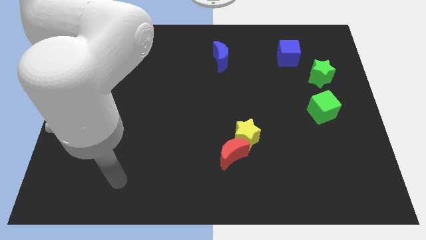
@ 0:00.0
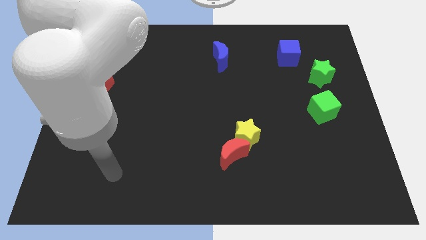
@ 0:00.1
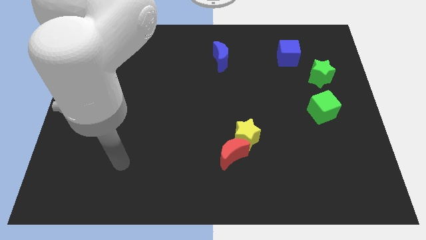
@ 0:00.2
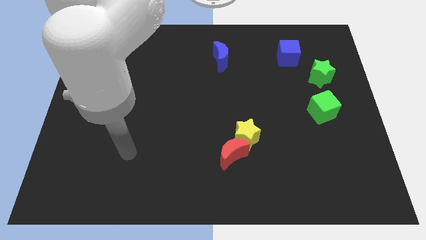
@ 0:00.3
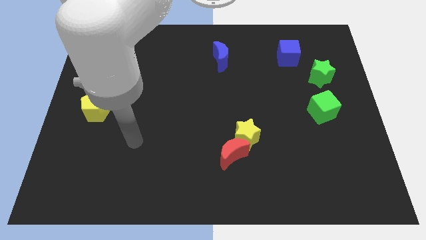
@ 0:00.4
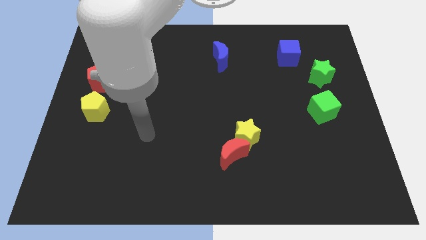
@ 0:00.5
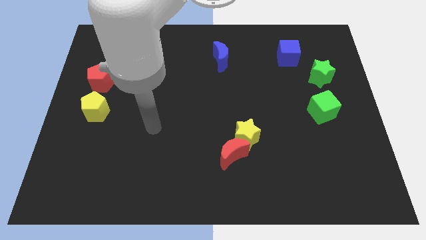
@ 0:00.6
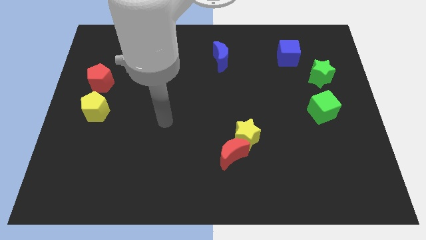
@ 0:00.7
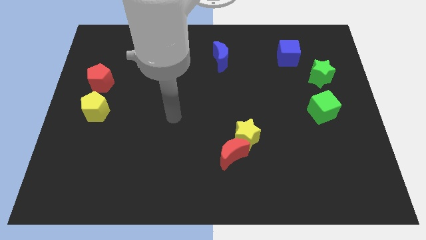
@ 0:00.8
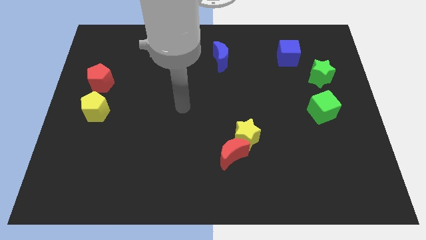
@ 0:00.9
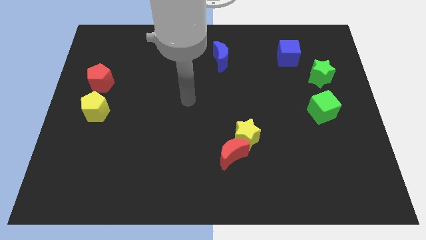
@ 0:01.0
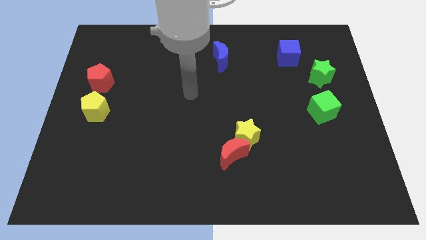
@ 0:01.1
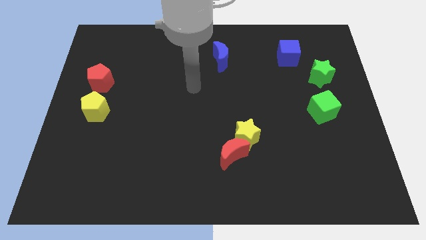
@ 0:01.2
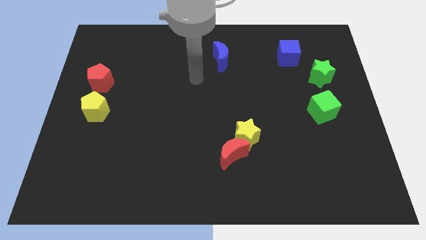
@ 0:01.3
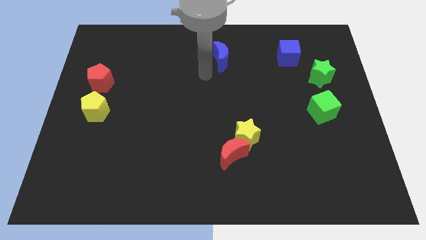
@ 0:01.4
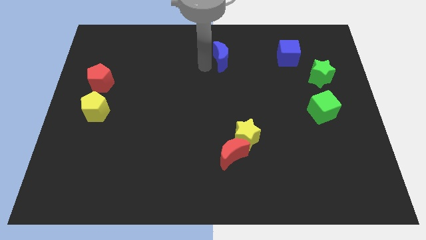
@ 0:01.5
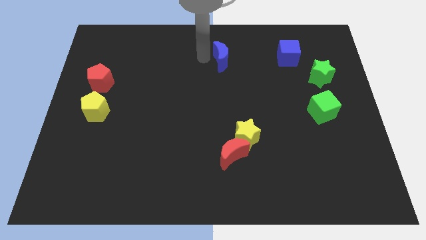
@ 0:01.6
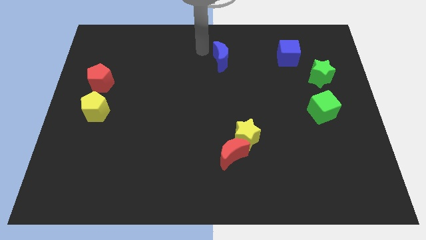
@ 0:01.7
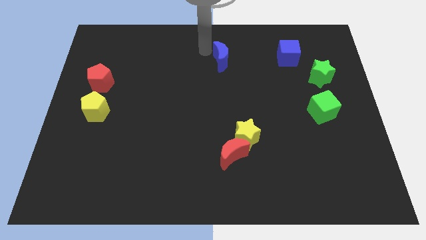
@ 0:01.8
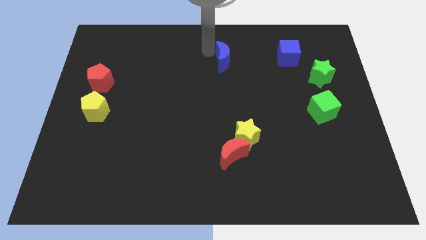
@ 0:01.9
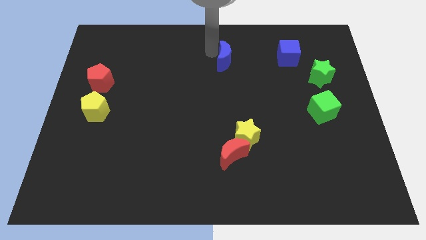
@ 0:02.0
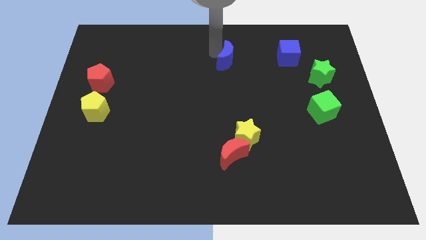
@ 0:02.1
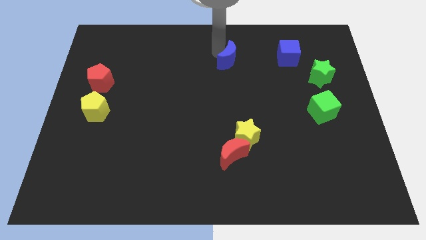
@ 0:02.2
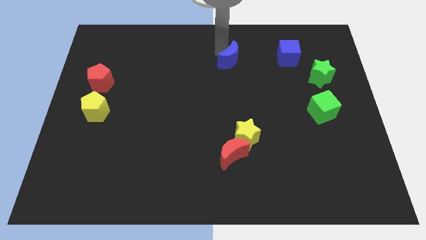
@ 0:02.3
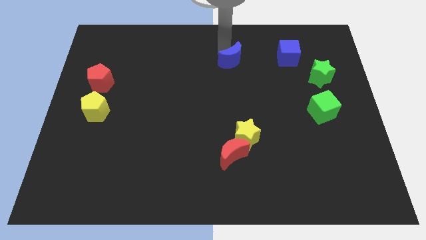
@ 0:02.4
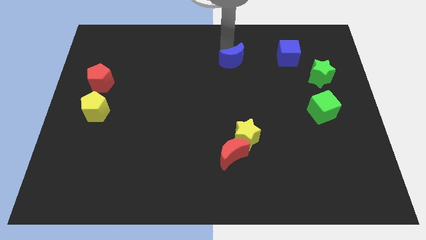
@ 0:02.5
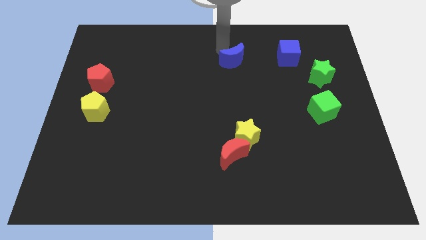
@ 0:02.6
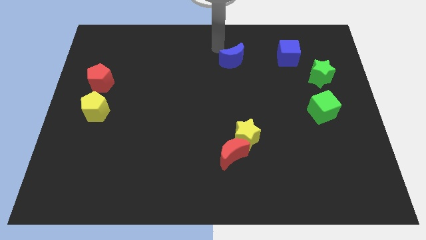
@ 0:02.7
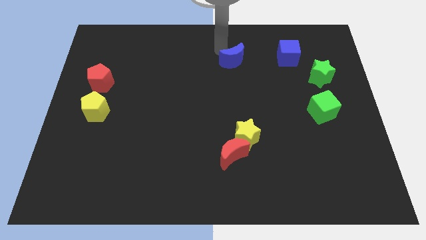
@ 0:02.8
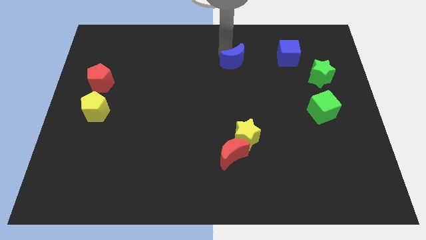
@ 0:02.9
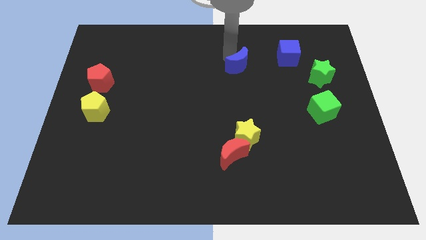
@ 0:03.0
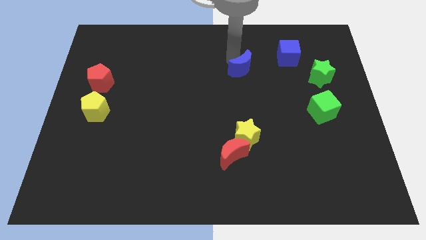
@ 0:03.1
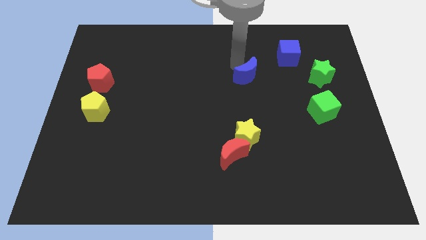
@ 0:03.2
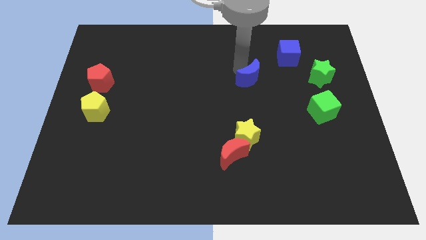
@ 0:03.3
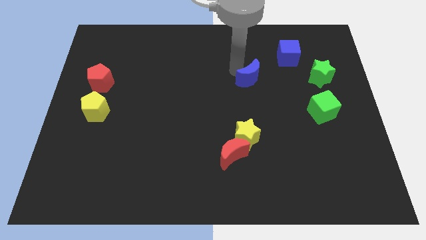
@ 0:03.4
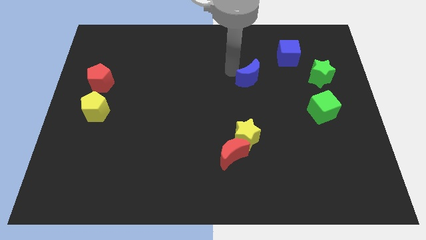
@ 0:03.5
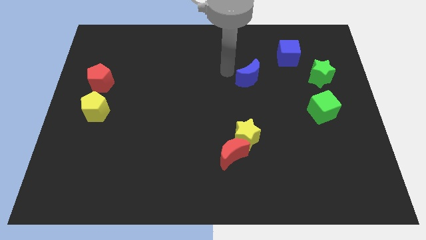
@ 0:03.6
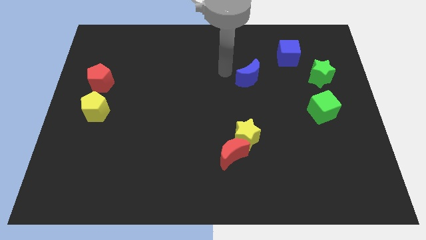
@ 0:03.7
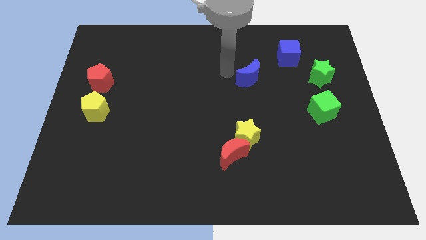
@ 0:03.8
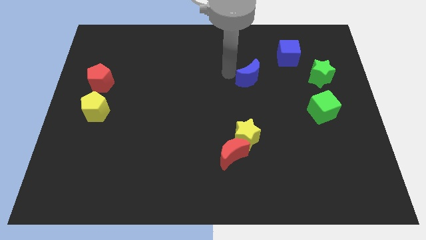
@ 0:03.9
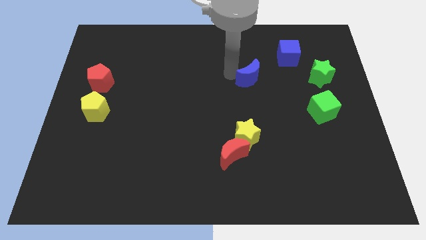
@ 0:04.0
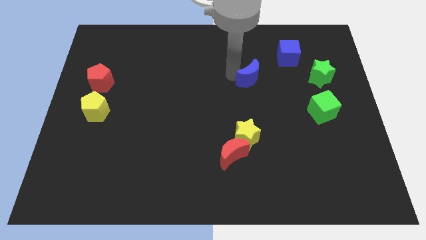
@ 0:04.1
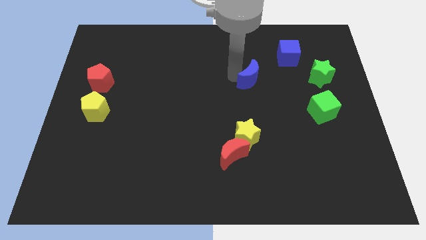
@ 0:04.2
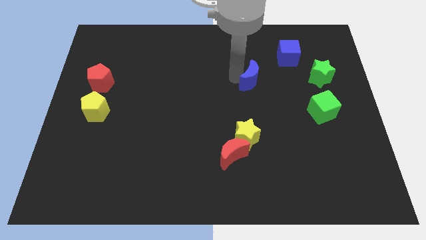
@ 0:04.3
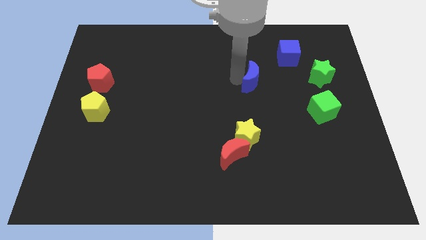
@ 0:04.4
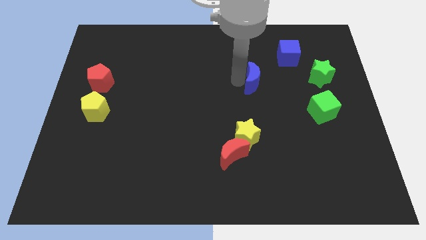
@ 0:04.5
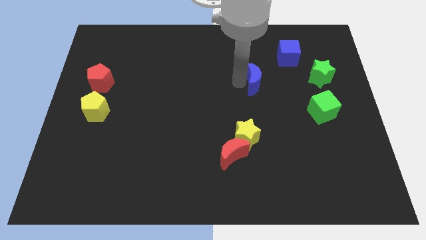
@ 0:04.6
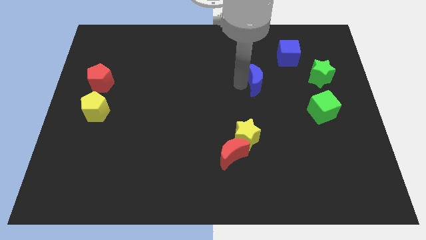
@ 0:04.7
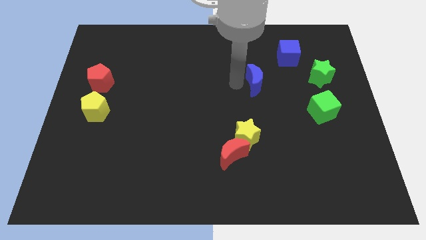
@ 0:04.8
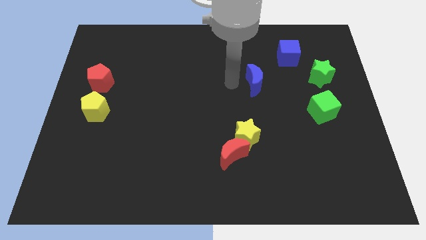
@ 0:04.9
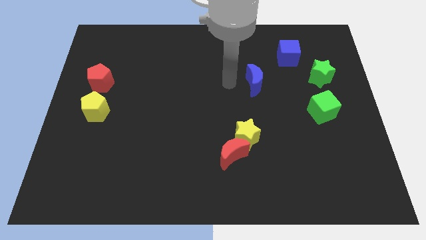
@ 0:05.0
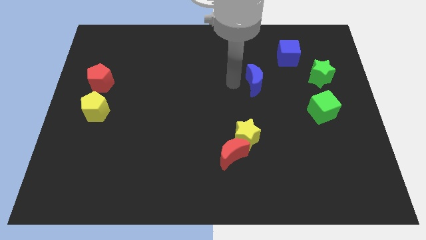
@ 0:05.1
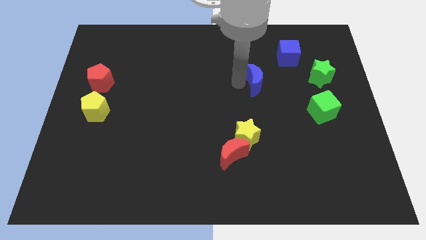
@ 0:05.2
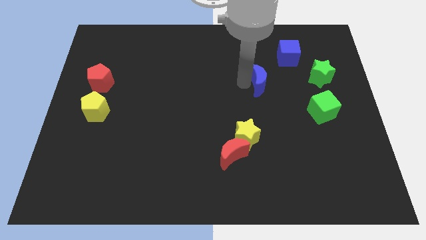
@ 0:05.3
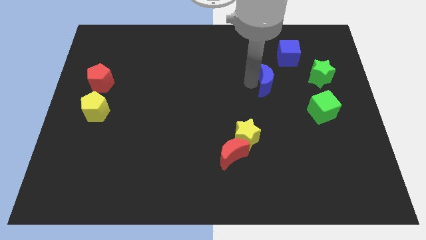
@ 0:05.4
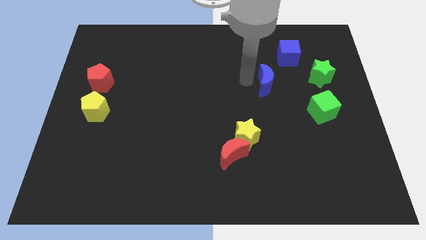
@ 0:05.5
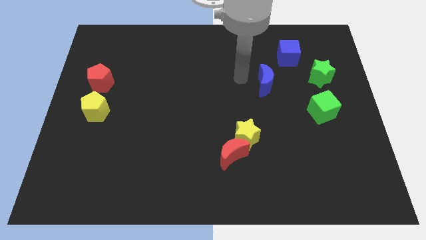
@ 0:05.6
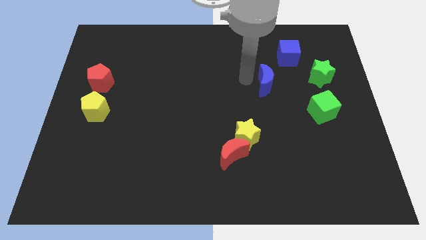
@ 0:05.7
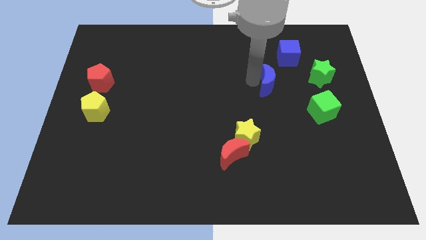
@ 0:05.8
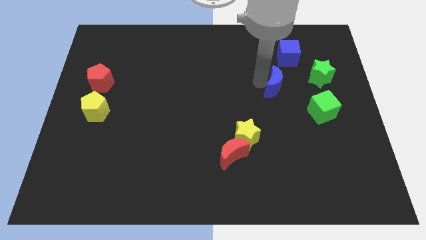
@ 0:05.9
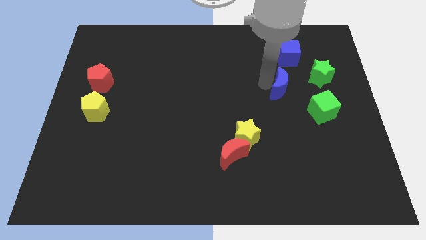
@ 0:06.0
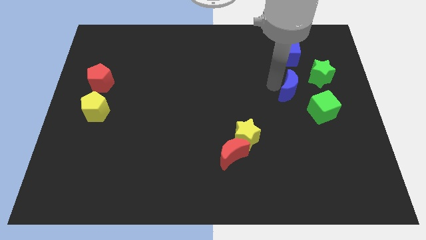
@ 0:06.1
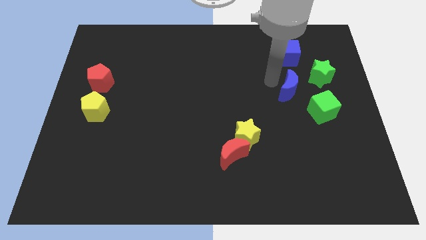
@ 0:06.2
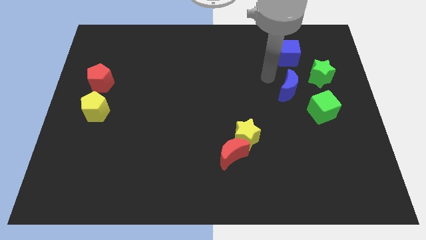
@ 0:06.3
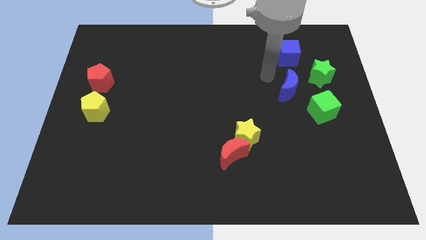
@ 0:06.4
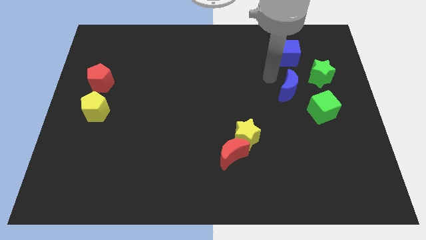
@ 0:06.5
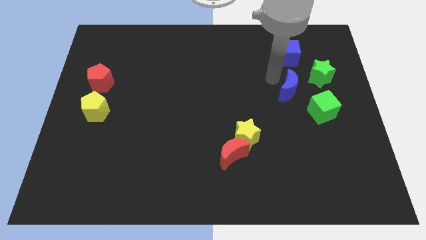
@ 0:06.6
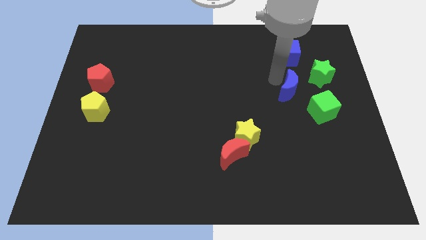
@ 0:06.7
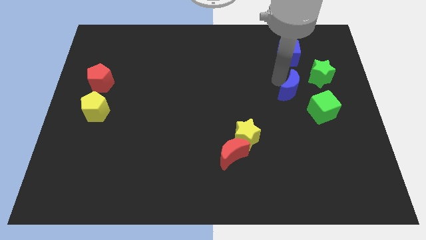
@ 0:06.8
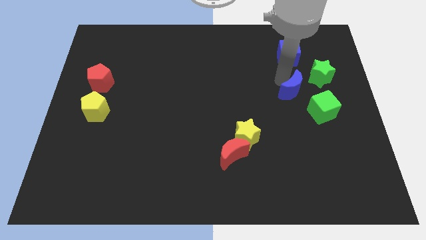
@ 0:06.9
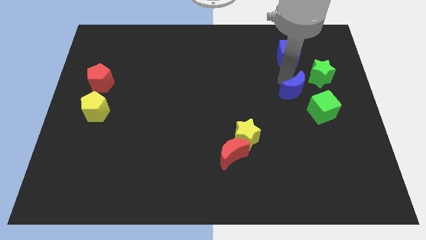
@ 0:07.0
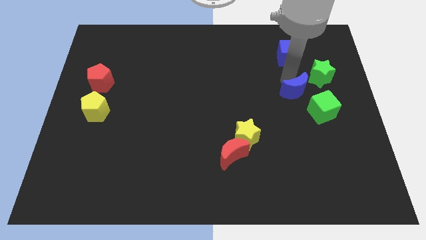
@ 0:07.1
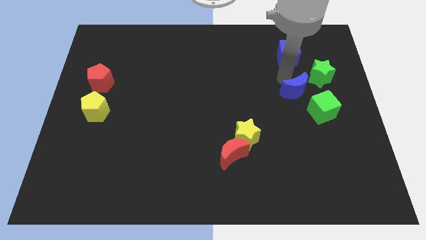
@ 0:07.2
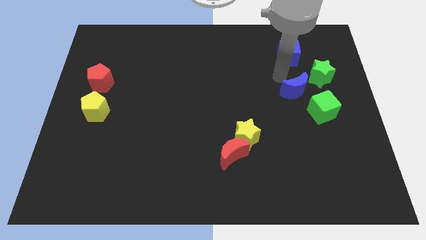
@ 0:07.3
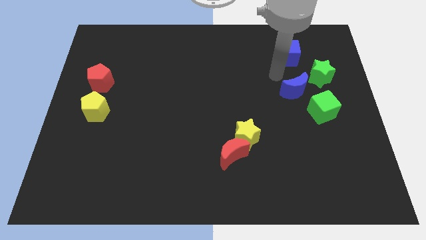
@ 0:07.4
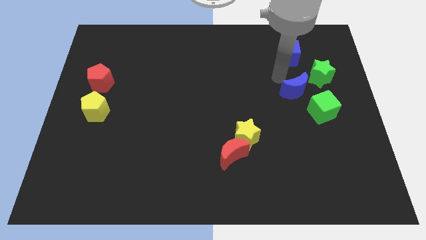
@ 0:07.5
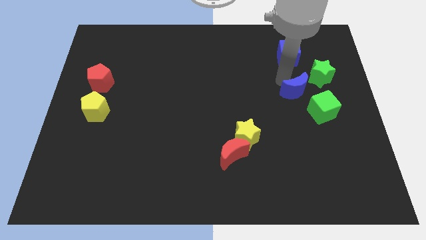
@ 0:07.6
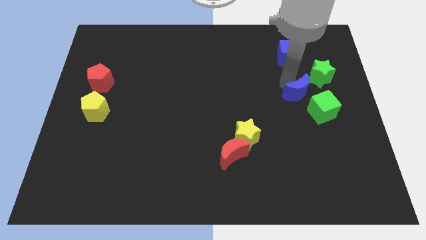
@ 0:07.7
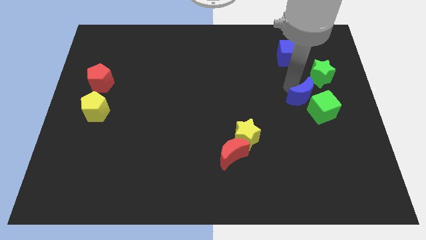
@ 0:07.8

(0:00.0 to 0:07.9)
put the blue moon towards the green cube

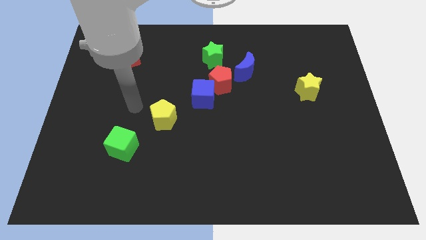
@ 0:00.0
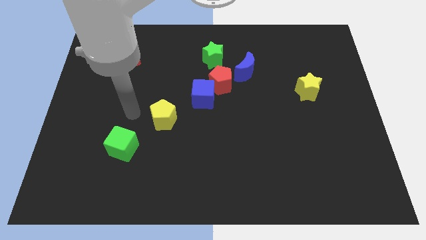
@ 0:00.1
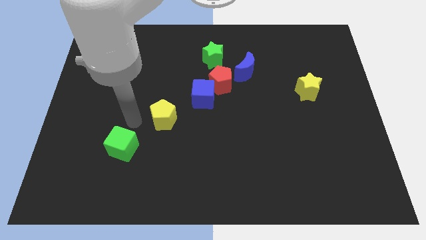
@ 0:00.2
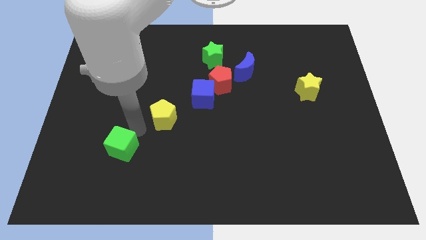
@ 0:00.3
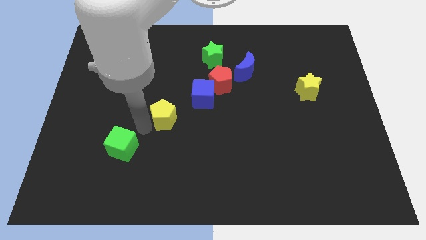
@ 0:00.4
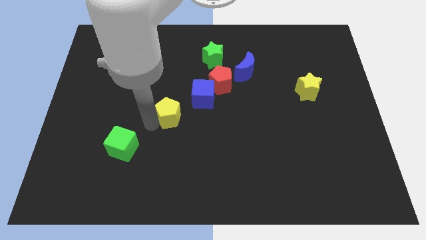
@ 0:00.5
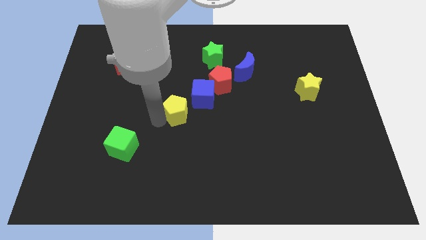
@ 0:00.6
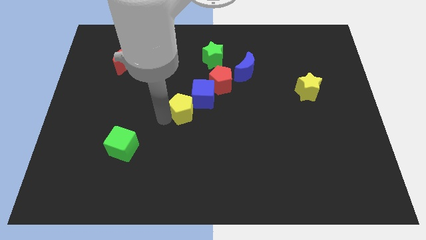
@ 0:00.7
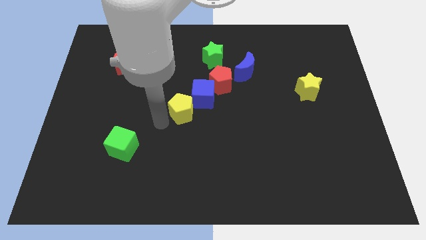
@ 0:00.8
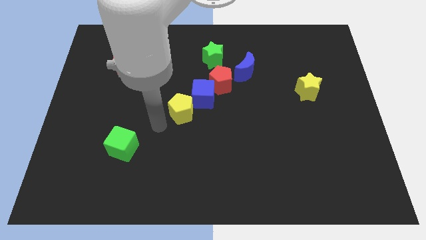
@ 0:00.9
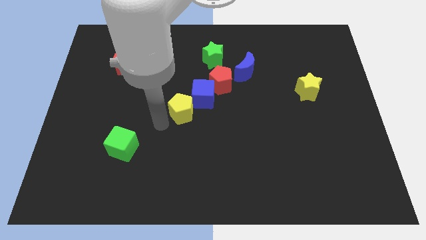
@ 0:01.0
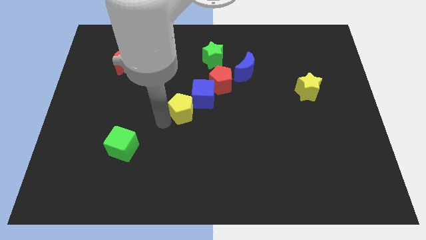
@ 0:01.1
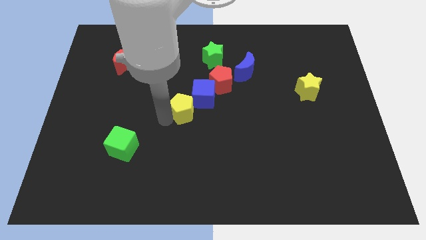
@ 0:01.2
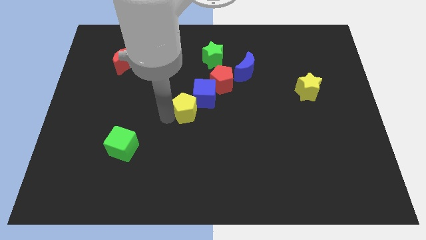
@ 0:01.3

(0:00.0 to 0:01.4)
push the yellow pentagon close to the blue cube
